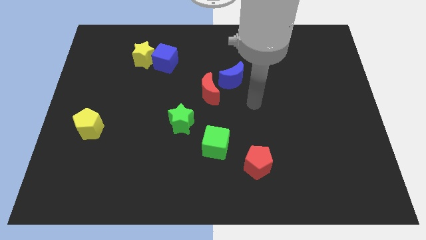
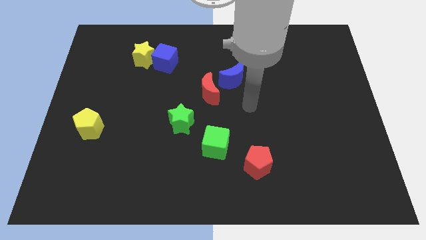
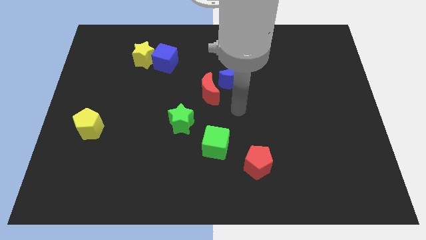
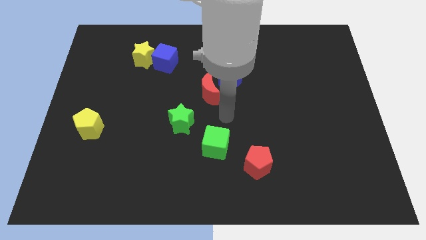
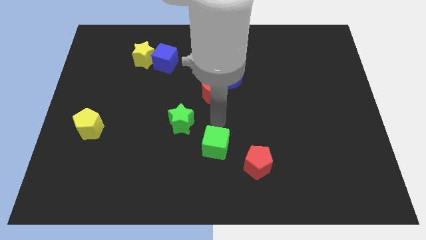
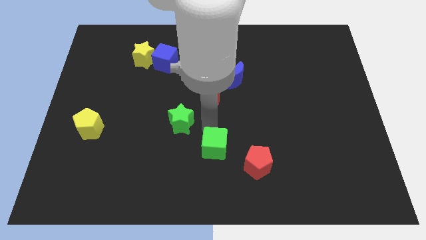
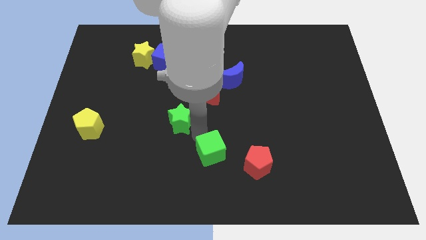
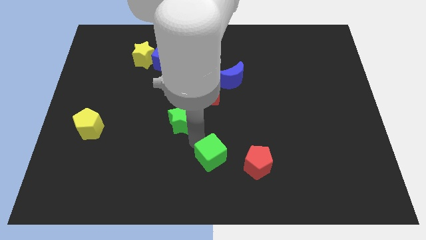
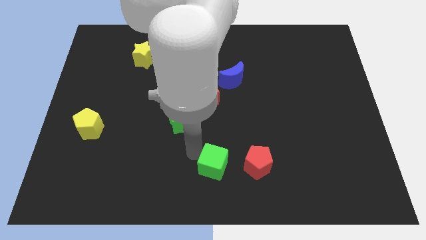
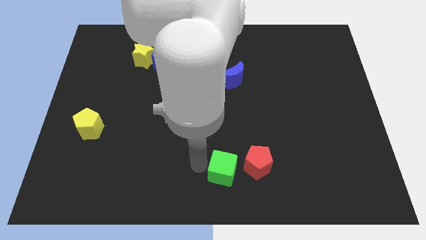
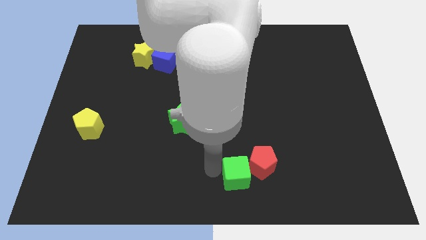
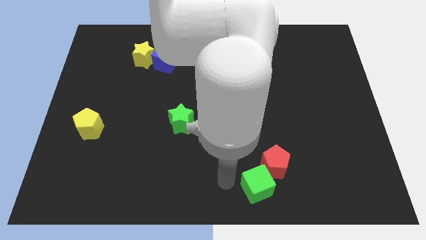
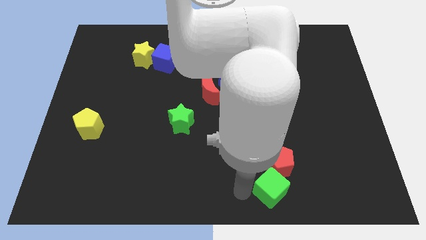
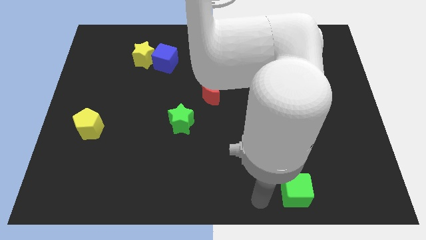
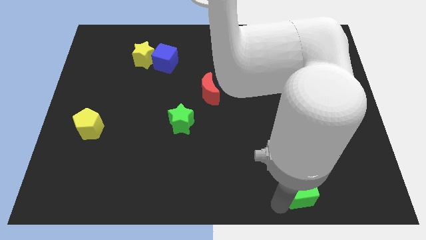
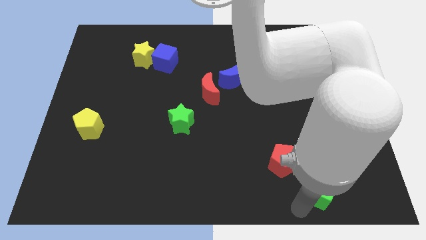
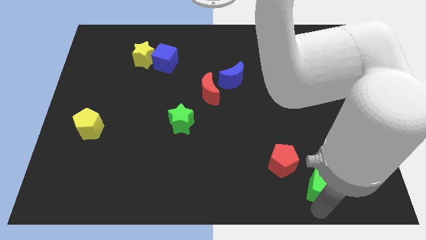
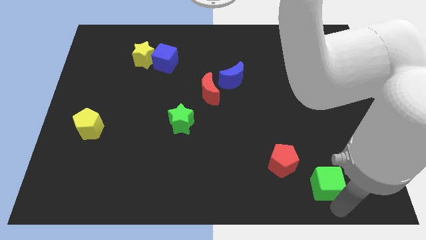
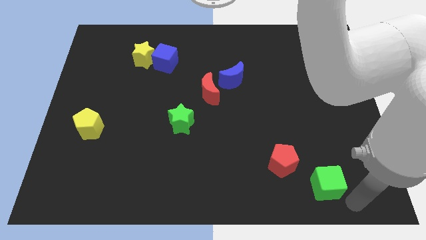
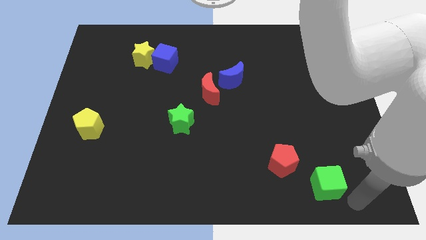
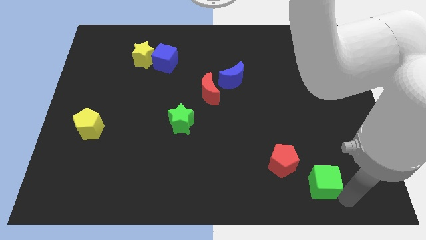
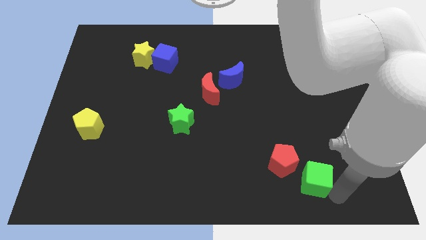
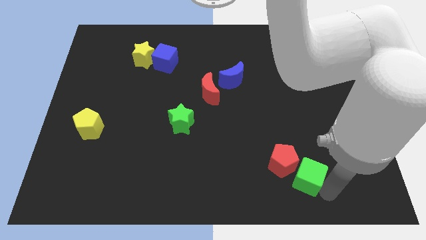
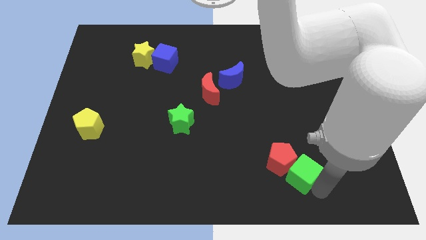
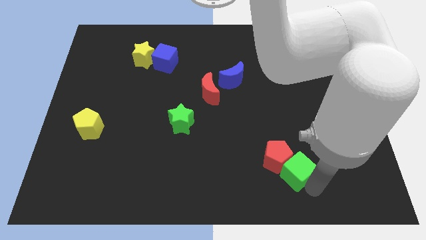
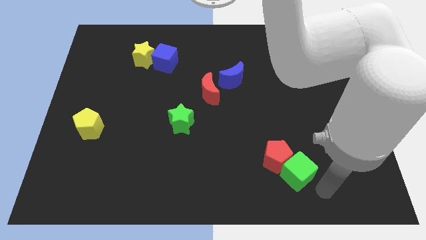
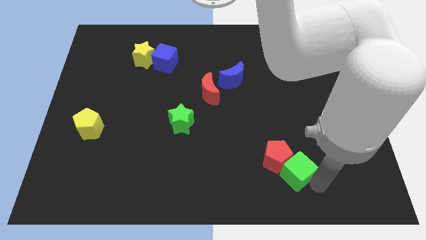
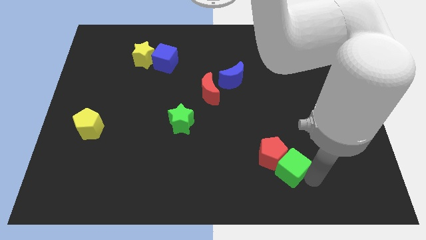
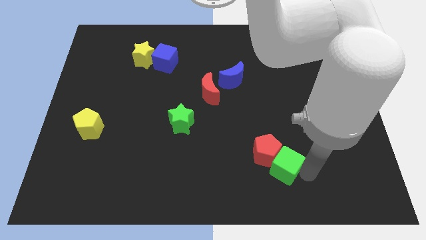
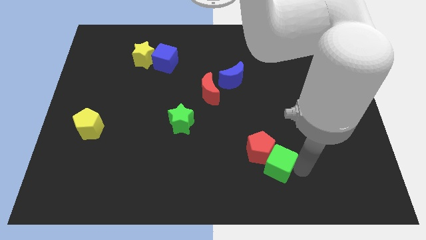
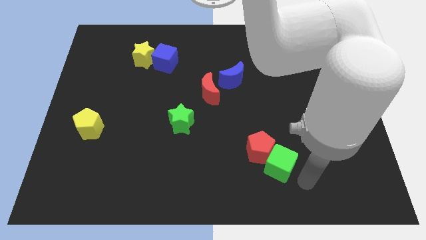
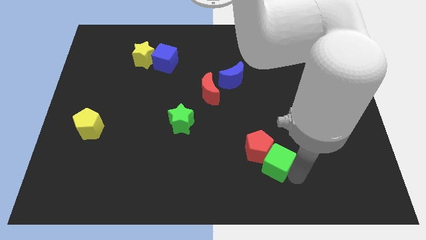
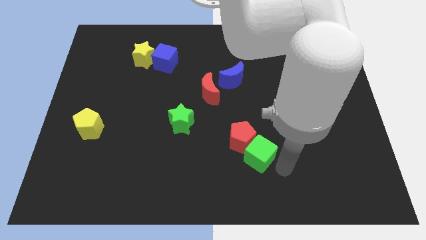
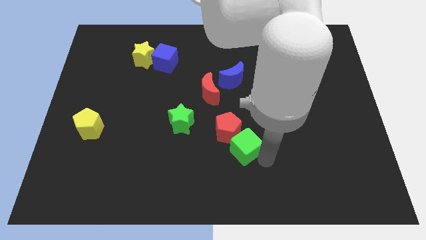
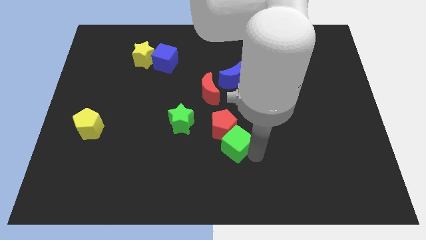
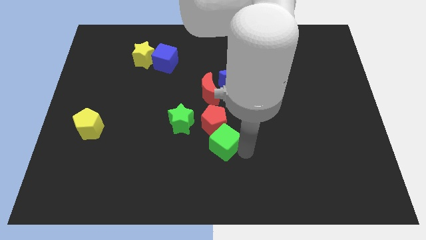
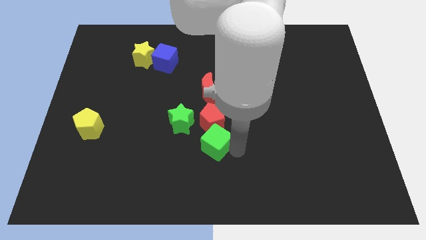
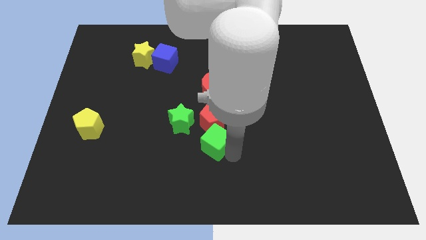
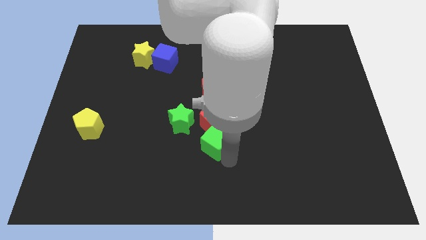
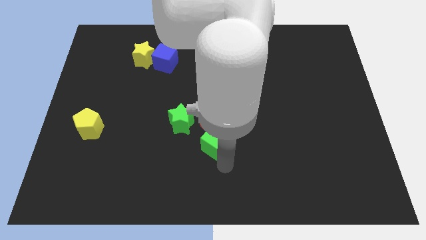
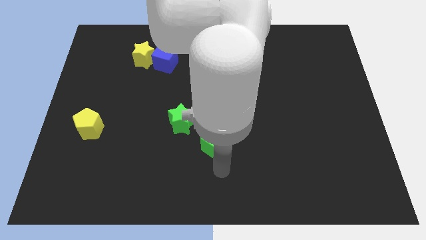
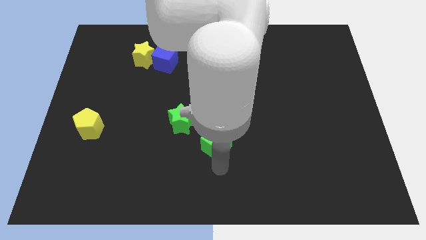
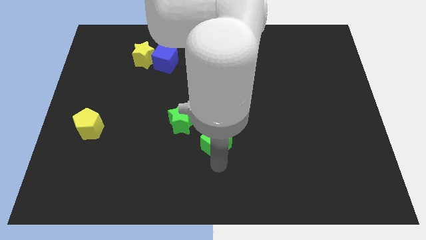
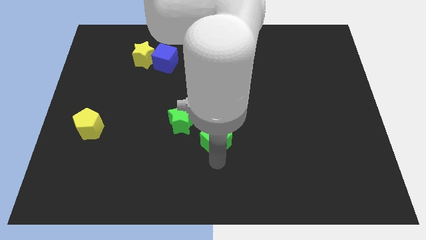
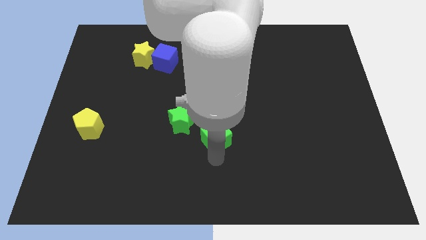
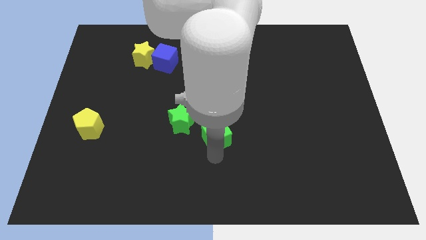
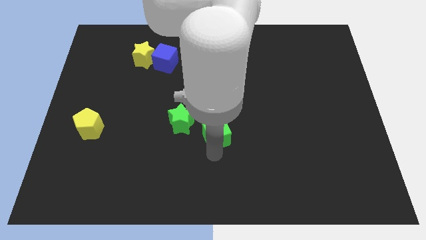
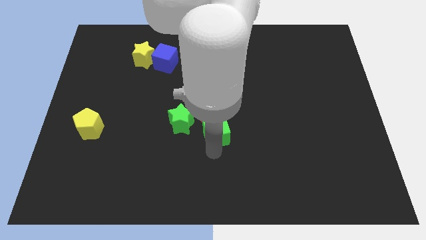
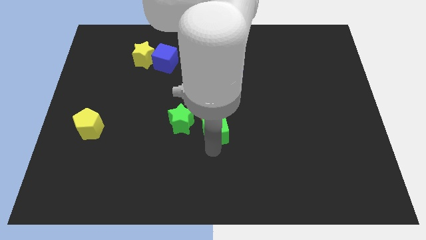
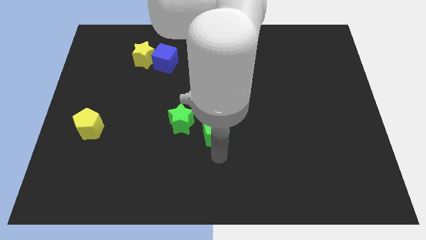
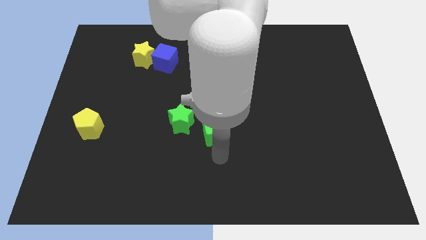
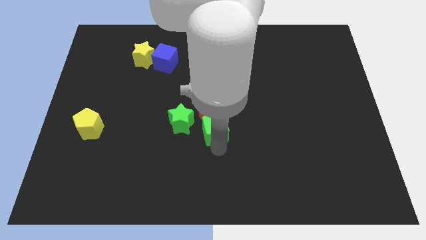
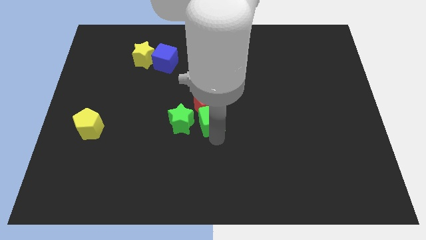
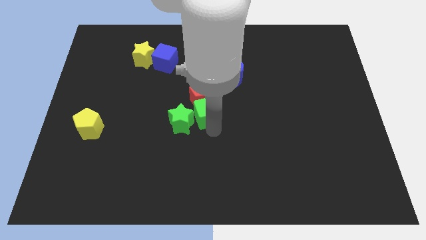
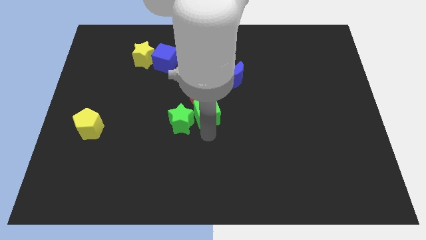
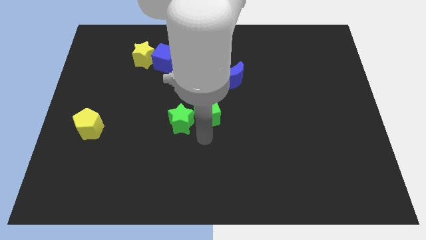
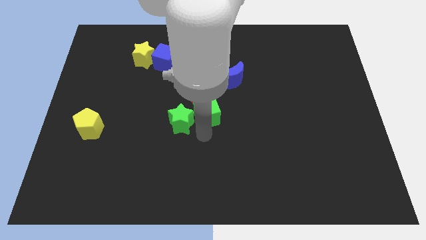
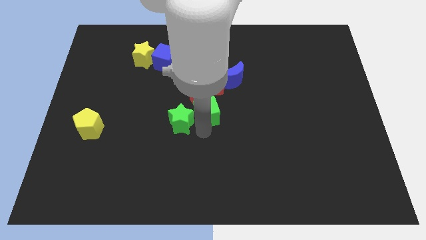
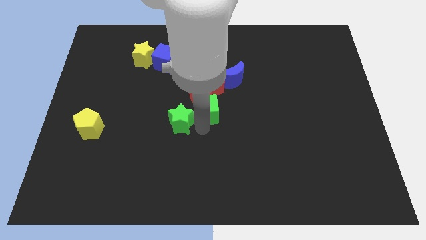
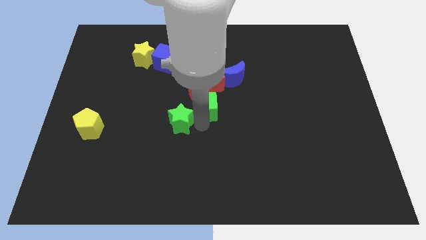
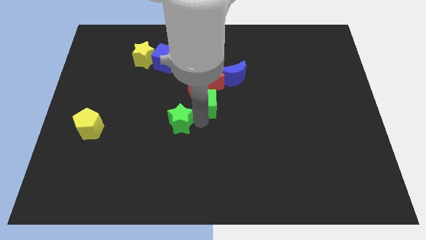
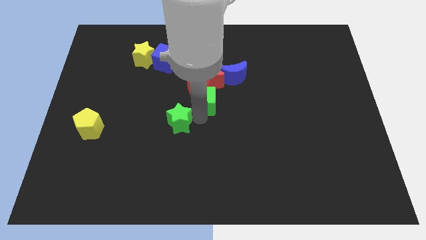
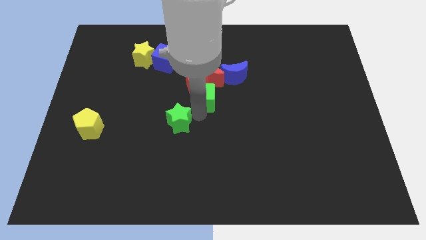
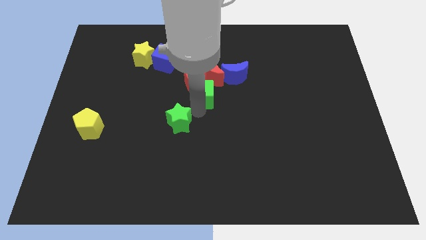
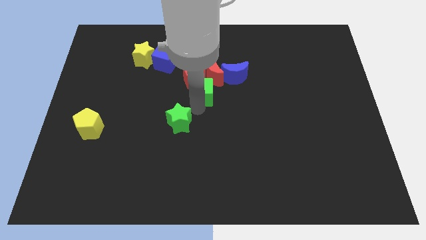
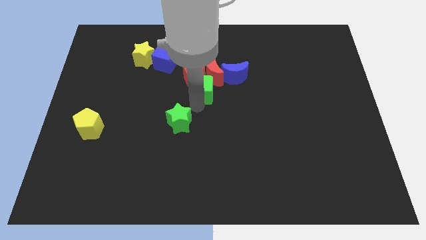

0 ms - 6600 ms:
move the green cube towards the red moon
